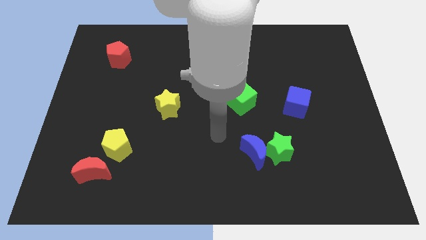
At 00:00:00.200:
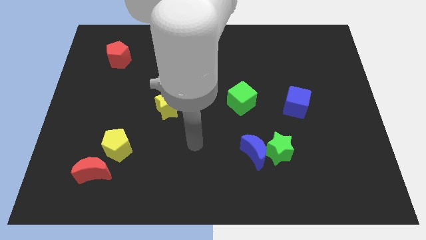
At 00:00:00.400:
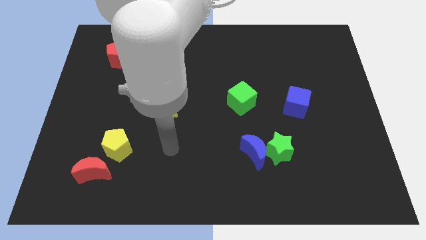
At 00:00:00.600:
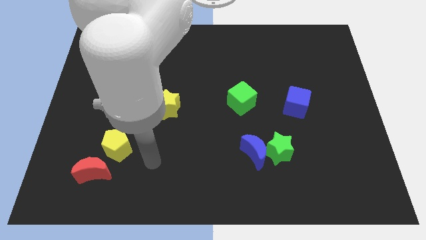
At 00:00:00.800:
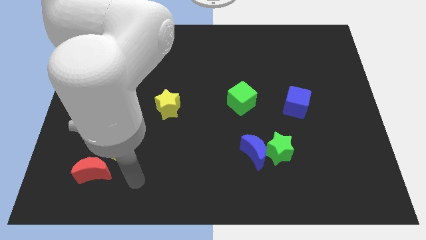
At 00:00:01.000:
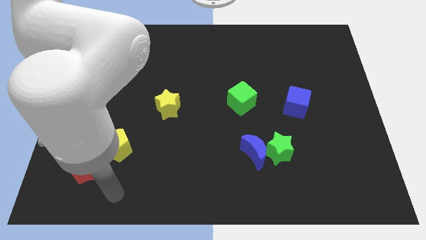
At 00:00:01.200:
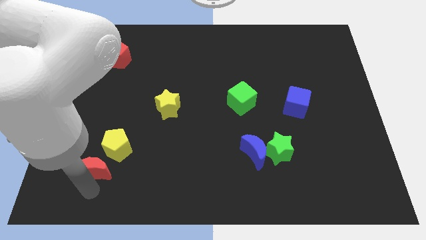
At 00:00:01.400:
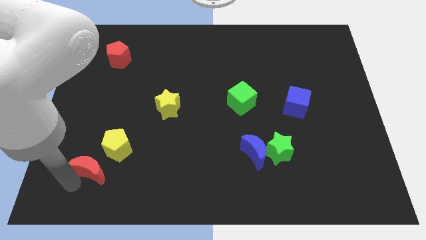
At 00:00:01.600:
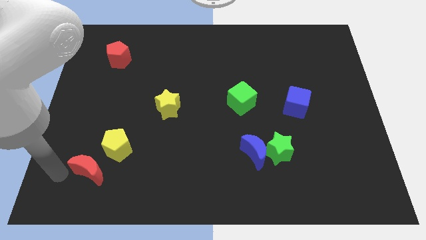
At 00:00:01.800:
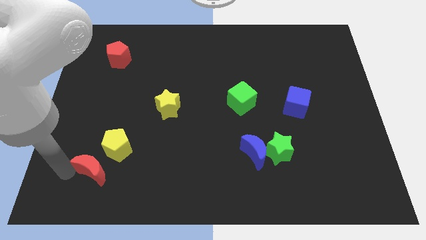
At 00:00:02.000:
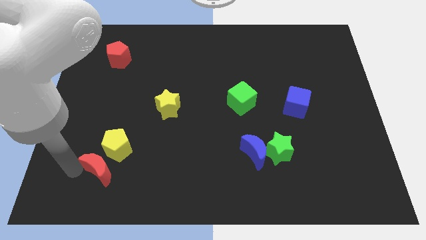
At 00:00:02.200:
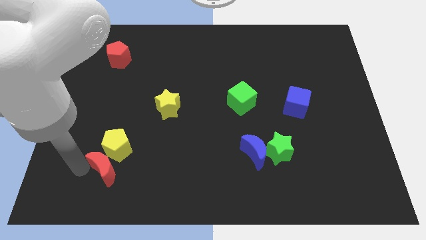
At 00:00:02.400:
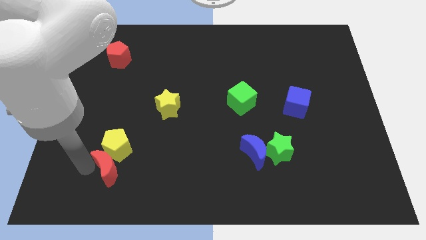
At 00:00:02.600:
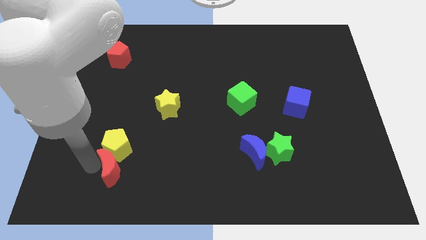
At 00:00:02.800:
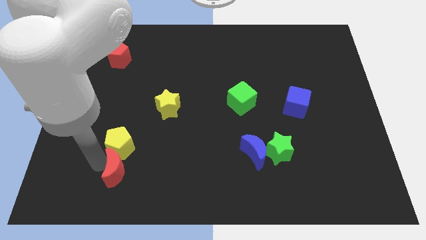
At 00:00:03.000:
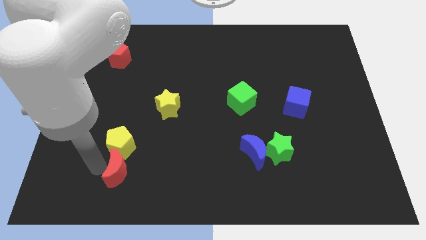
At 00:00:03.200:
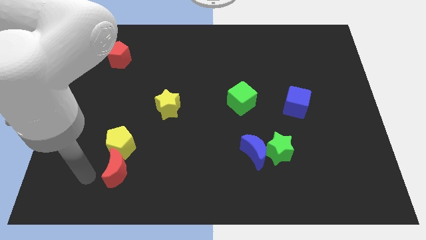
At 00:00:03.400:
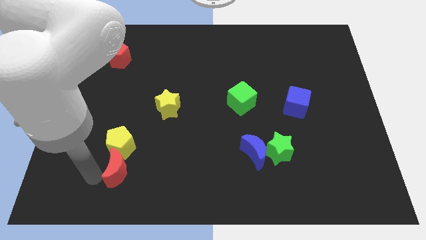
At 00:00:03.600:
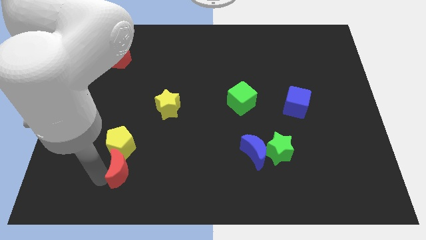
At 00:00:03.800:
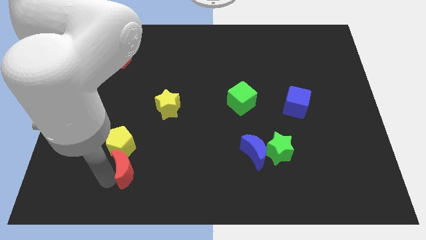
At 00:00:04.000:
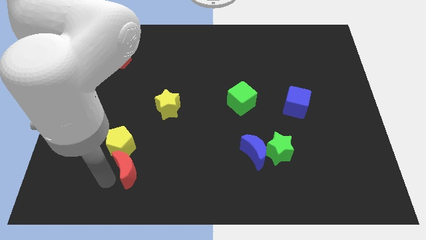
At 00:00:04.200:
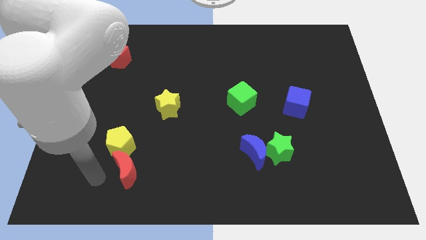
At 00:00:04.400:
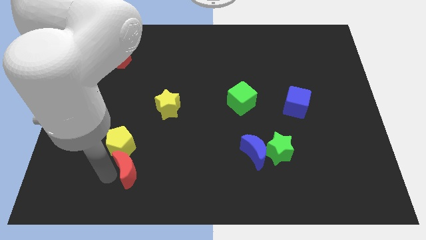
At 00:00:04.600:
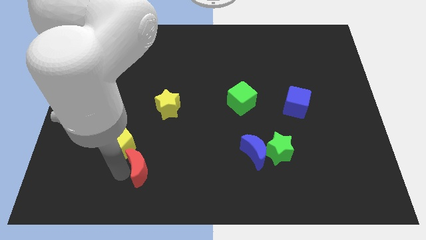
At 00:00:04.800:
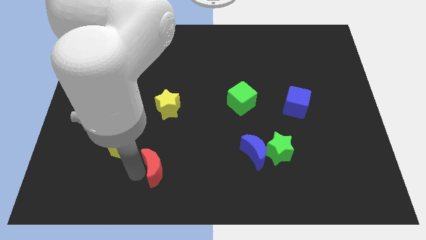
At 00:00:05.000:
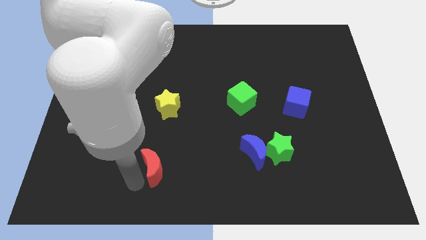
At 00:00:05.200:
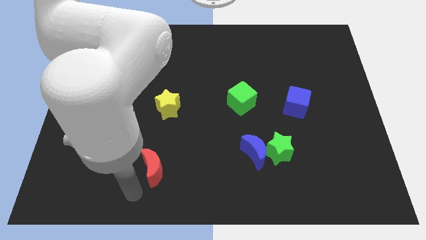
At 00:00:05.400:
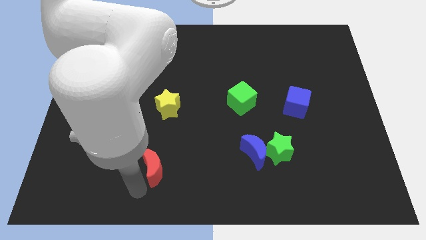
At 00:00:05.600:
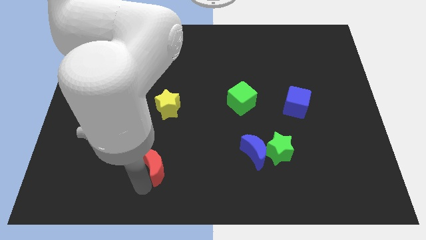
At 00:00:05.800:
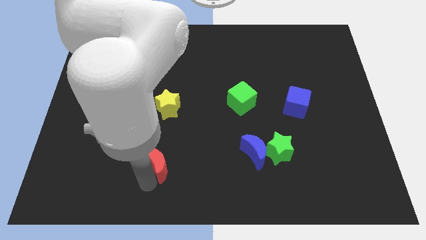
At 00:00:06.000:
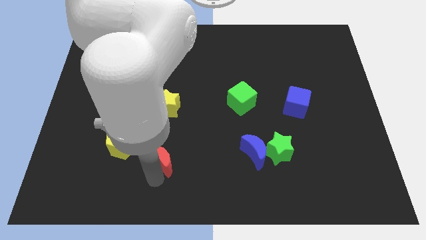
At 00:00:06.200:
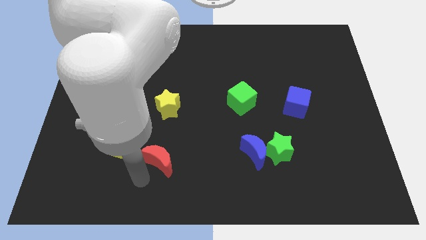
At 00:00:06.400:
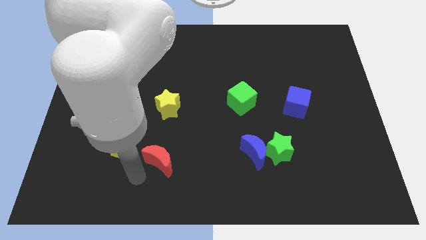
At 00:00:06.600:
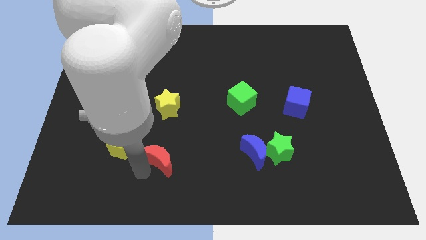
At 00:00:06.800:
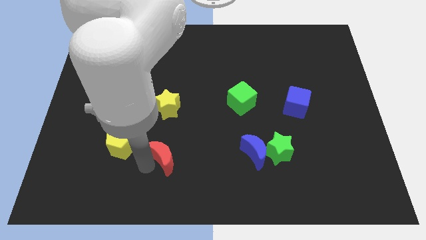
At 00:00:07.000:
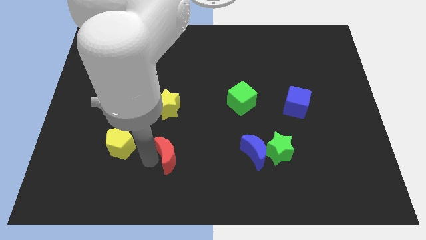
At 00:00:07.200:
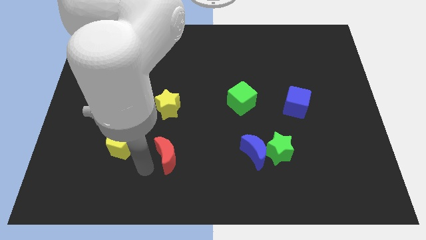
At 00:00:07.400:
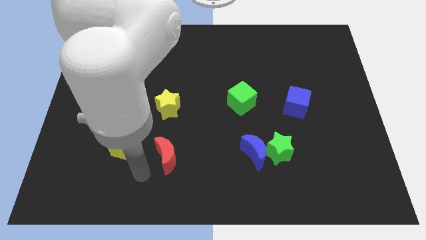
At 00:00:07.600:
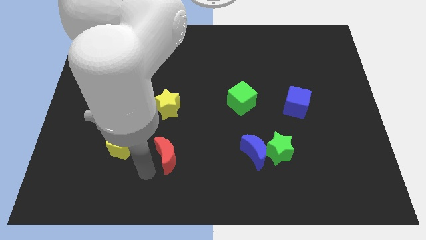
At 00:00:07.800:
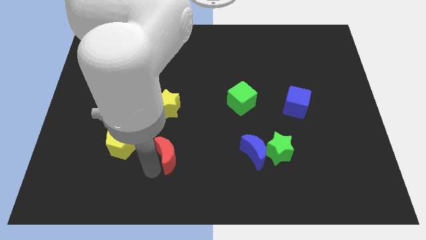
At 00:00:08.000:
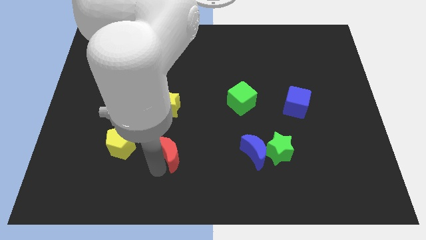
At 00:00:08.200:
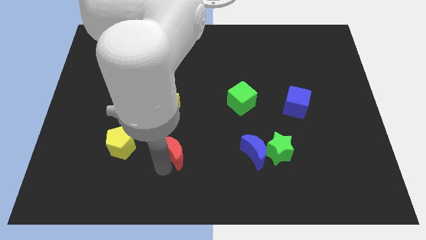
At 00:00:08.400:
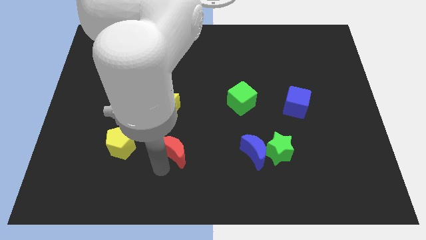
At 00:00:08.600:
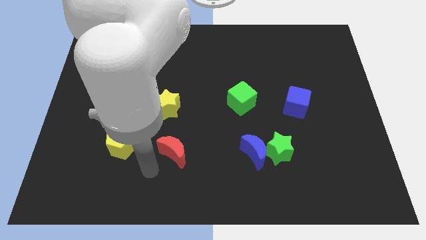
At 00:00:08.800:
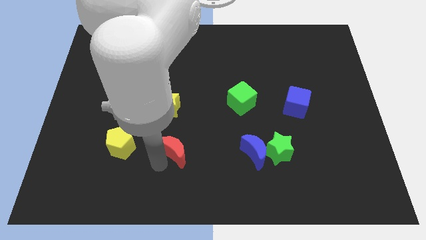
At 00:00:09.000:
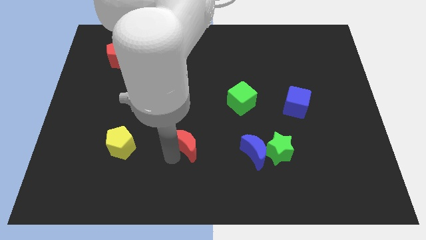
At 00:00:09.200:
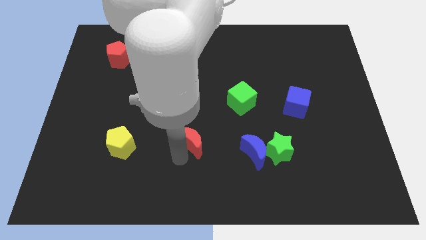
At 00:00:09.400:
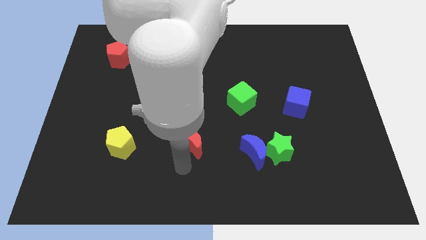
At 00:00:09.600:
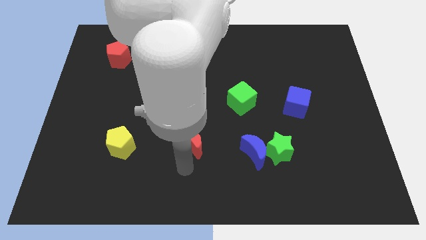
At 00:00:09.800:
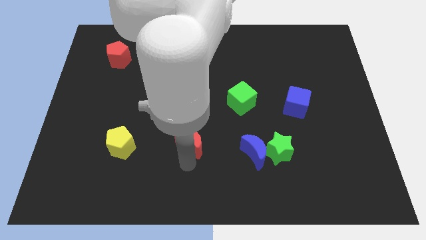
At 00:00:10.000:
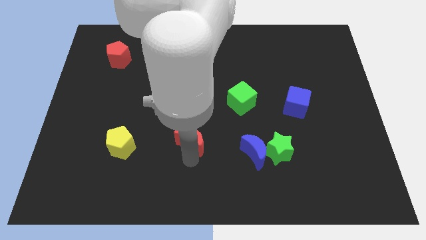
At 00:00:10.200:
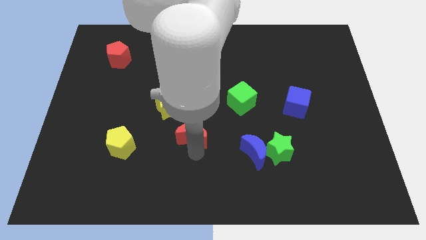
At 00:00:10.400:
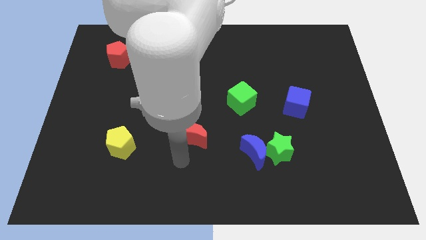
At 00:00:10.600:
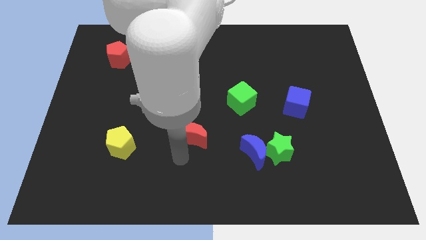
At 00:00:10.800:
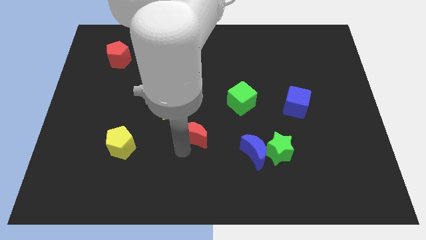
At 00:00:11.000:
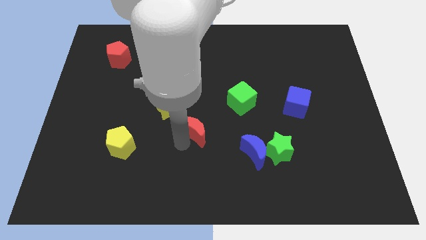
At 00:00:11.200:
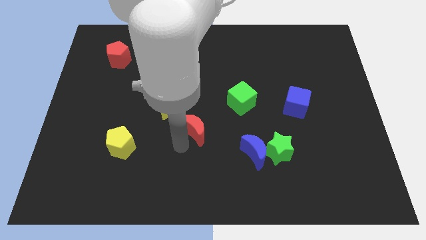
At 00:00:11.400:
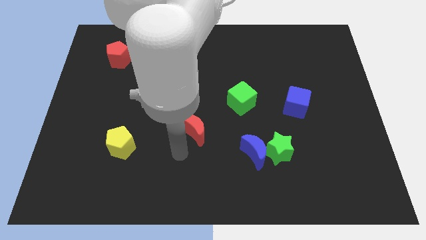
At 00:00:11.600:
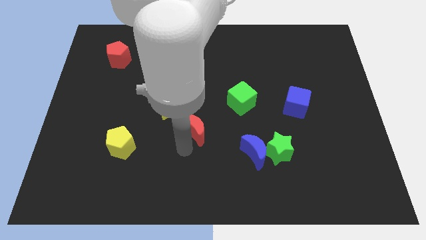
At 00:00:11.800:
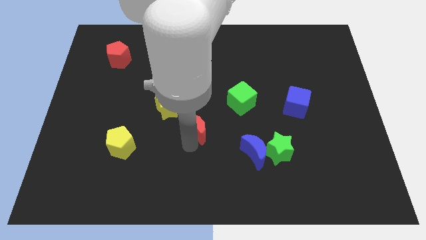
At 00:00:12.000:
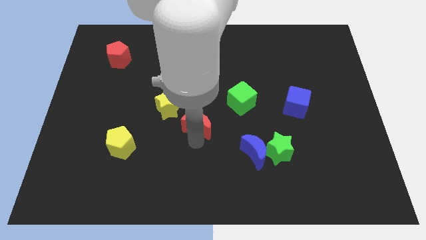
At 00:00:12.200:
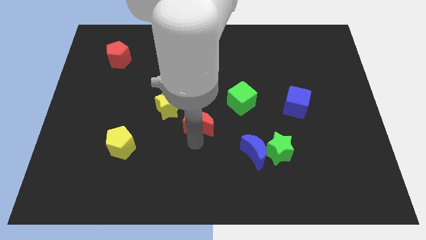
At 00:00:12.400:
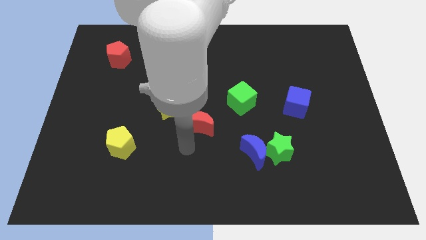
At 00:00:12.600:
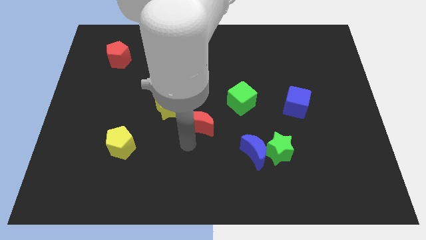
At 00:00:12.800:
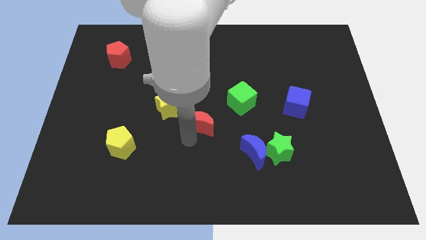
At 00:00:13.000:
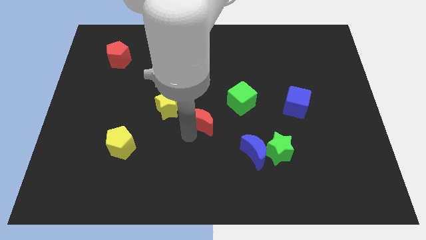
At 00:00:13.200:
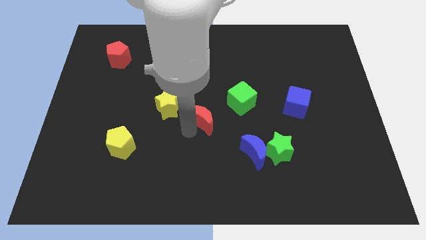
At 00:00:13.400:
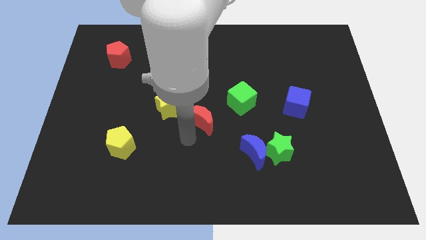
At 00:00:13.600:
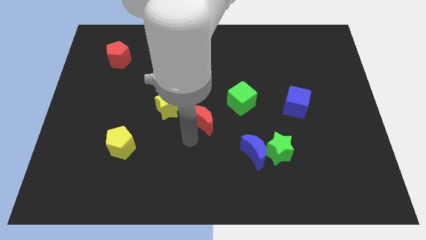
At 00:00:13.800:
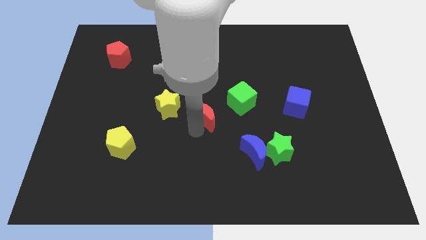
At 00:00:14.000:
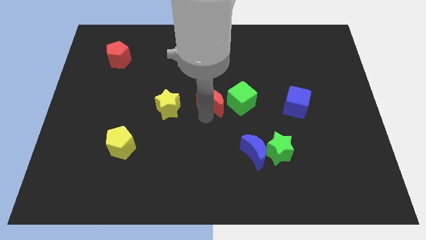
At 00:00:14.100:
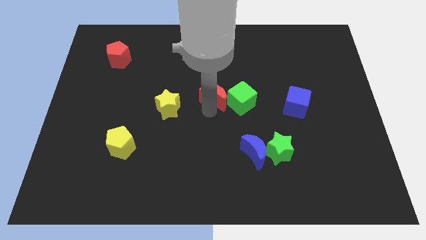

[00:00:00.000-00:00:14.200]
move the red moon diagonally up and to the left of the green cube
